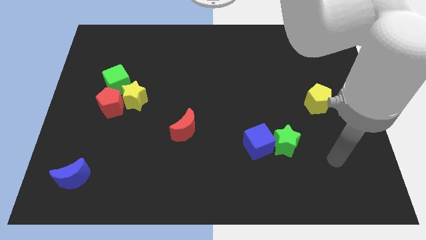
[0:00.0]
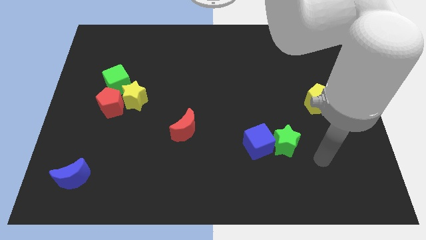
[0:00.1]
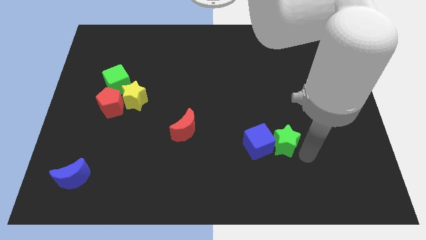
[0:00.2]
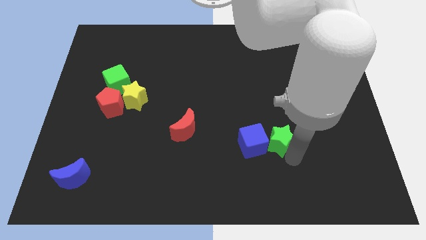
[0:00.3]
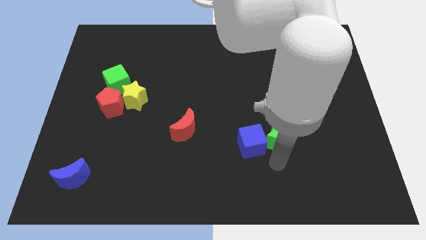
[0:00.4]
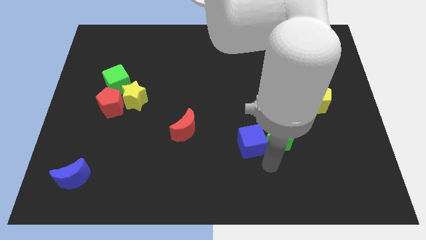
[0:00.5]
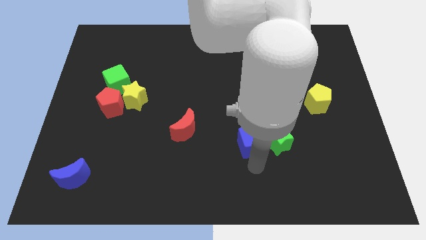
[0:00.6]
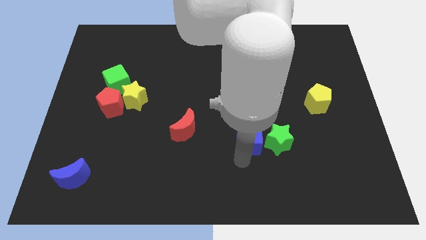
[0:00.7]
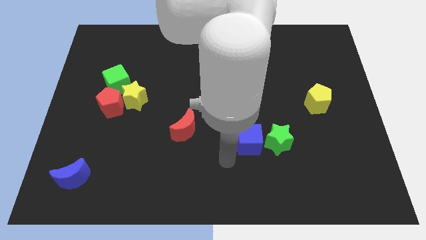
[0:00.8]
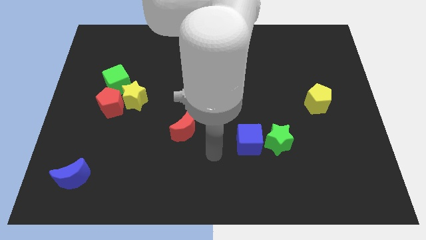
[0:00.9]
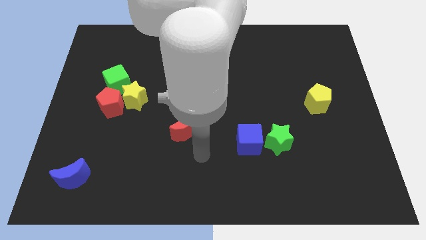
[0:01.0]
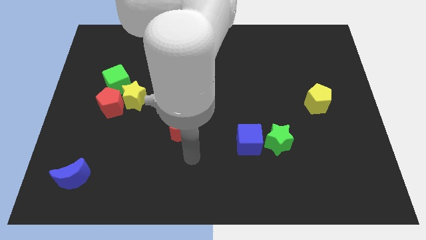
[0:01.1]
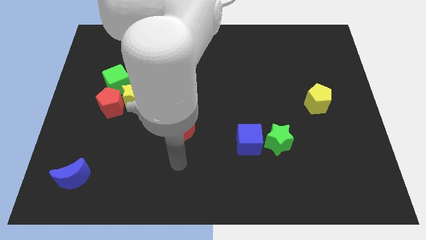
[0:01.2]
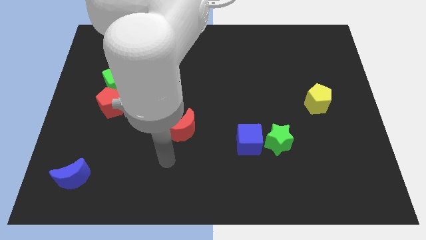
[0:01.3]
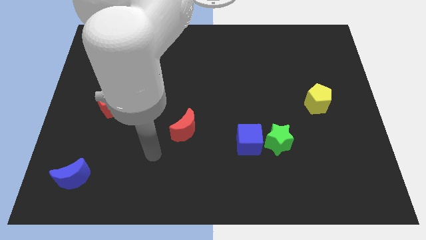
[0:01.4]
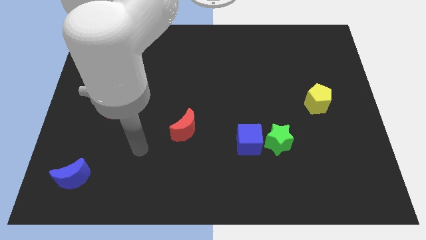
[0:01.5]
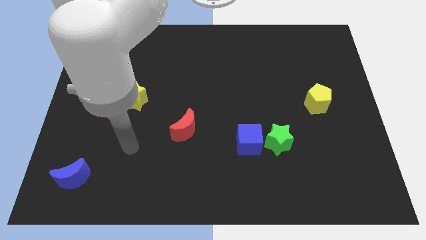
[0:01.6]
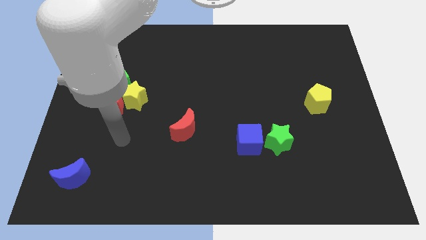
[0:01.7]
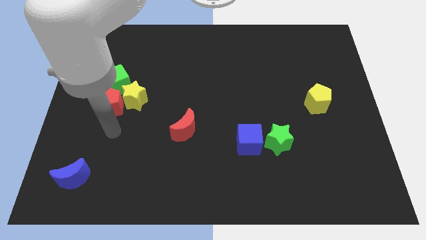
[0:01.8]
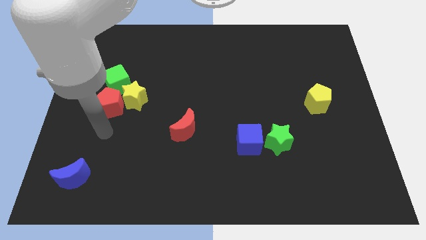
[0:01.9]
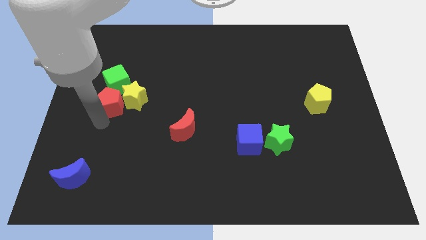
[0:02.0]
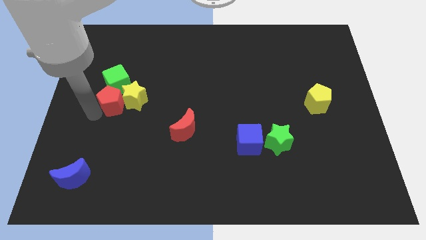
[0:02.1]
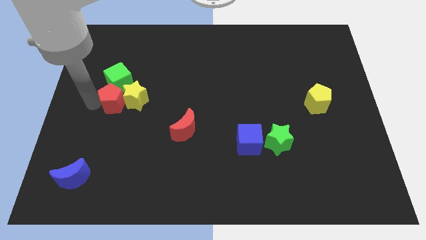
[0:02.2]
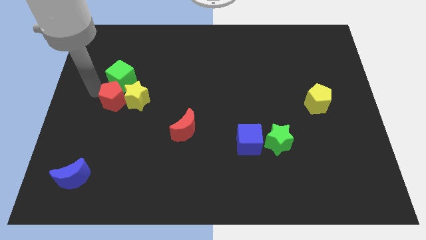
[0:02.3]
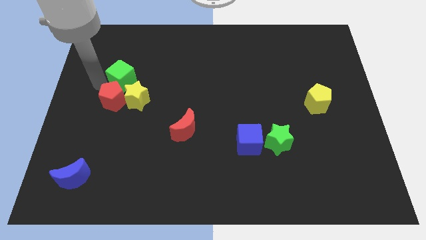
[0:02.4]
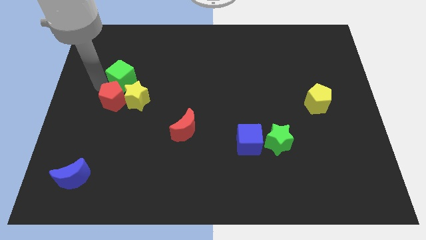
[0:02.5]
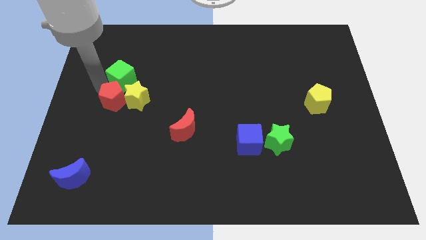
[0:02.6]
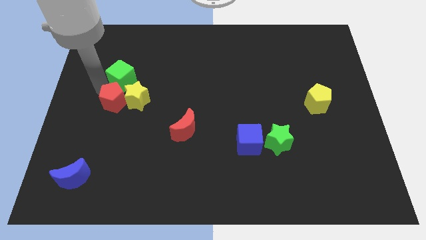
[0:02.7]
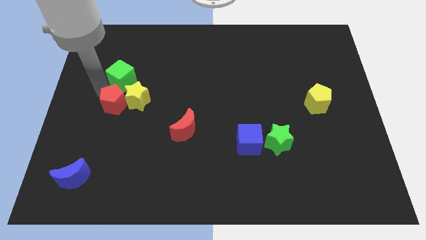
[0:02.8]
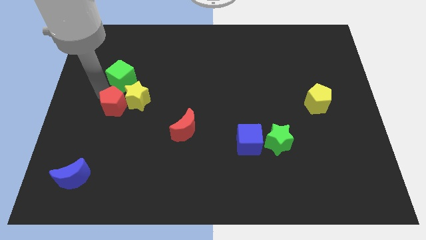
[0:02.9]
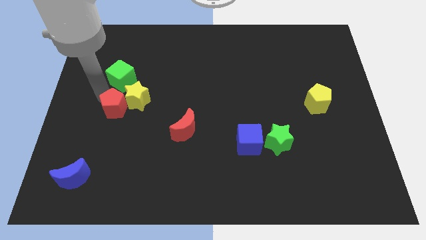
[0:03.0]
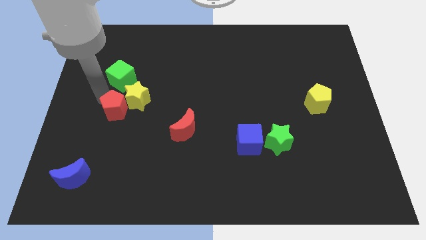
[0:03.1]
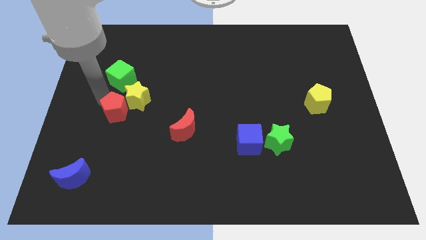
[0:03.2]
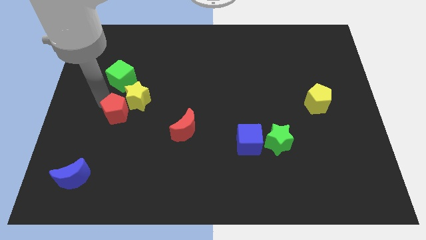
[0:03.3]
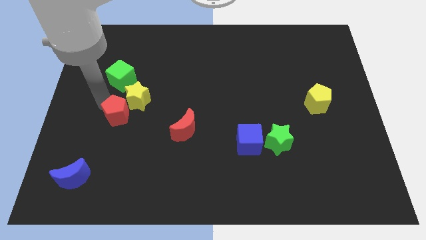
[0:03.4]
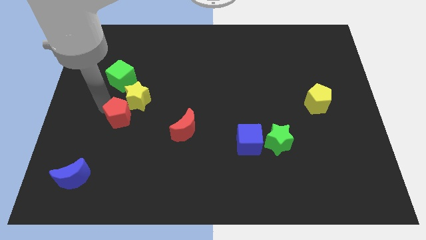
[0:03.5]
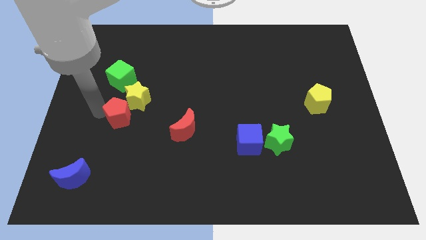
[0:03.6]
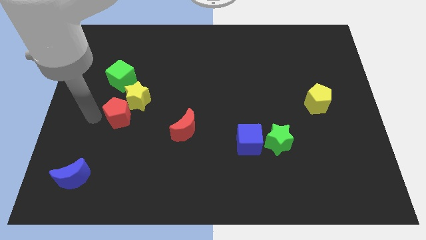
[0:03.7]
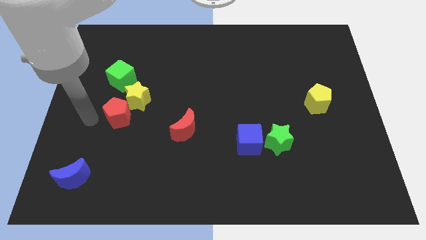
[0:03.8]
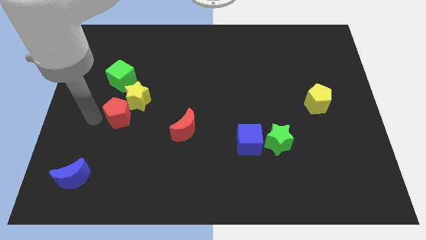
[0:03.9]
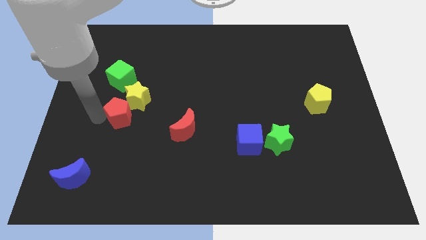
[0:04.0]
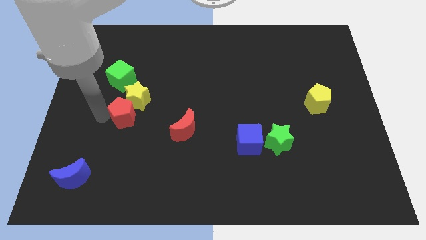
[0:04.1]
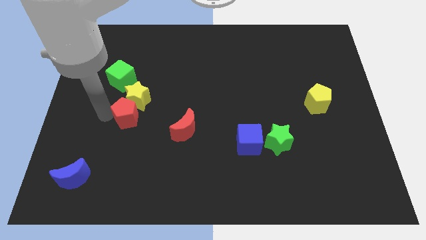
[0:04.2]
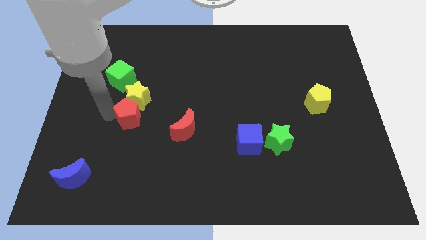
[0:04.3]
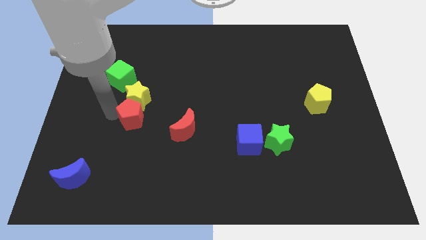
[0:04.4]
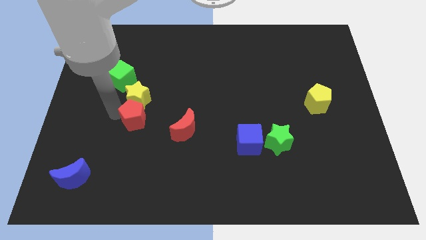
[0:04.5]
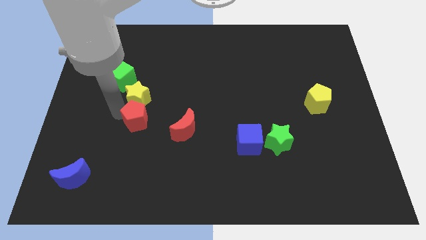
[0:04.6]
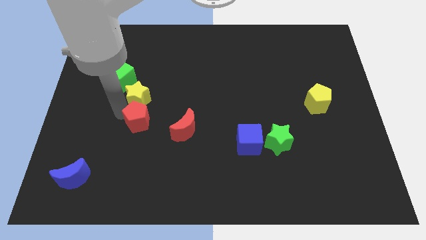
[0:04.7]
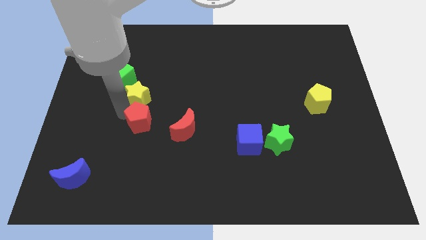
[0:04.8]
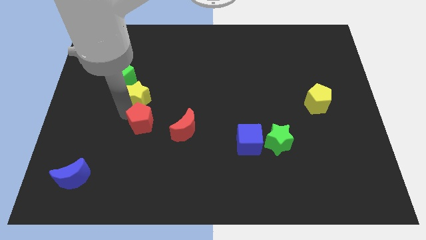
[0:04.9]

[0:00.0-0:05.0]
move the red pentagon to the right somewhat

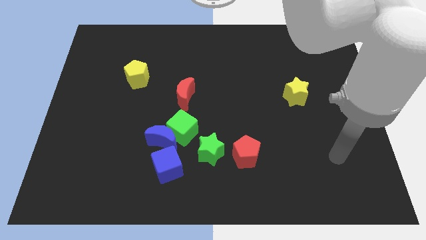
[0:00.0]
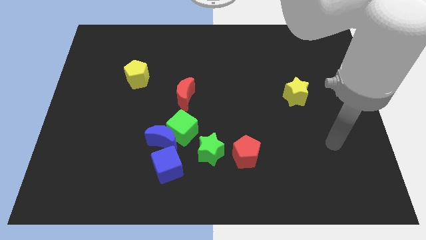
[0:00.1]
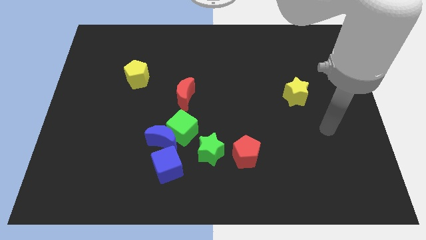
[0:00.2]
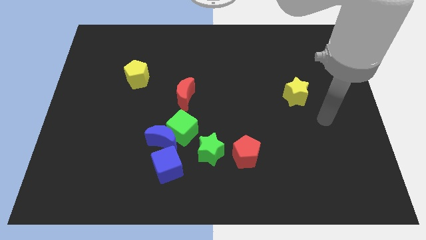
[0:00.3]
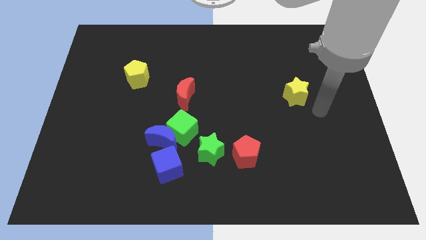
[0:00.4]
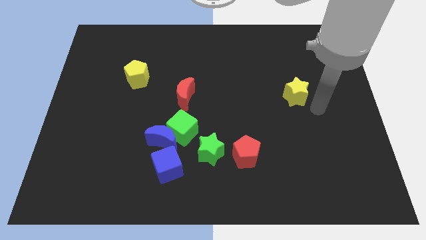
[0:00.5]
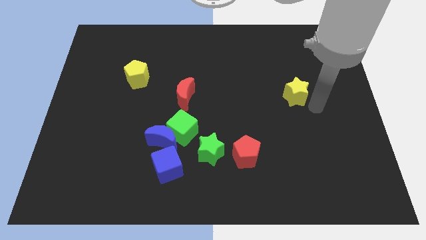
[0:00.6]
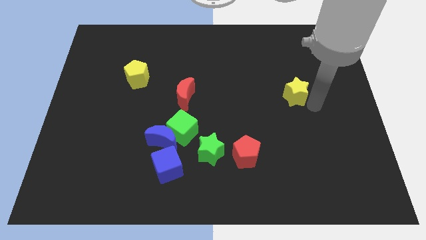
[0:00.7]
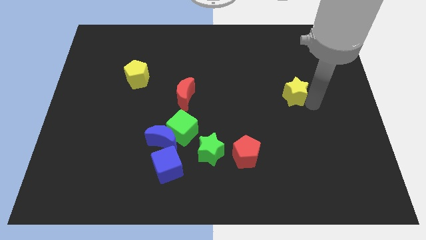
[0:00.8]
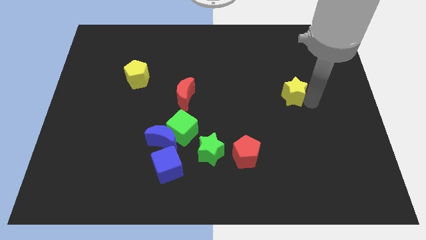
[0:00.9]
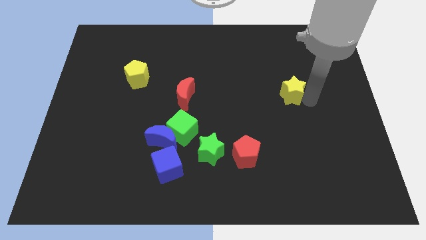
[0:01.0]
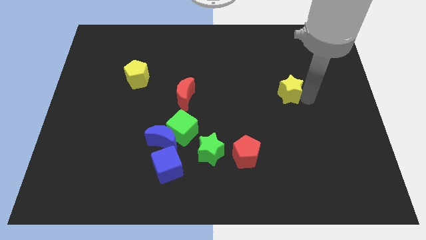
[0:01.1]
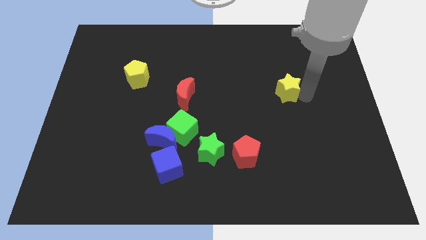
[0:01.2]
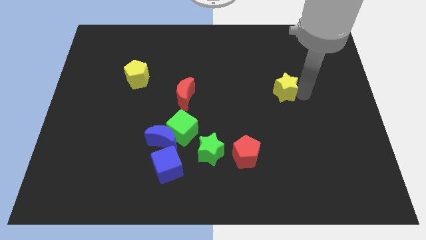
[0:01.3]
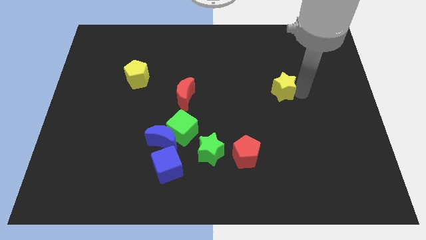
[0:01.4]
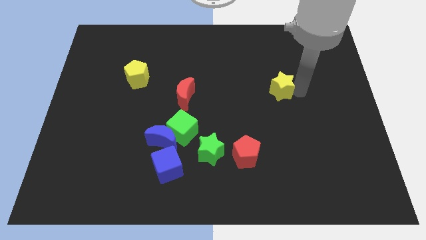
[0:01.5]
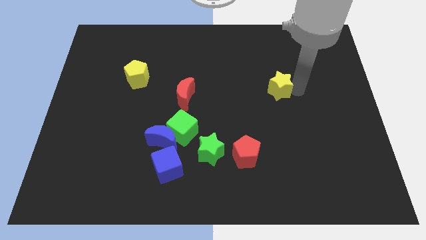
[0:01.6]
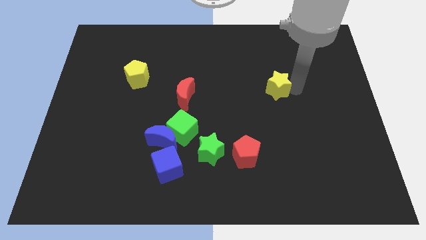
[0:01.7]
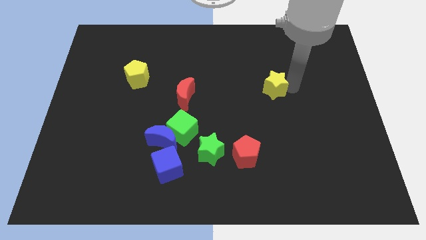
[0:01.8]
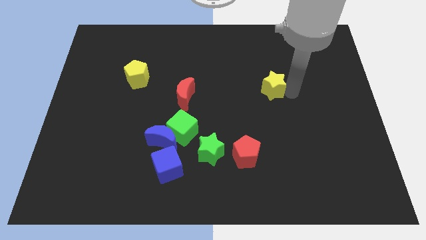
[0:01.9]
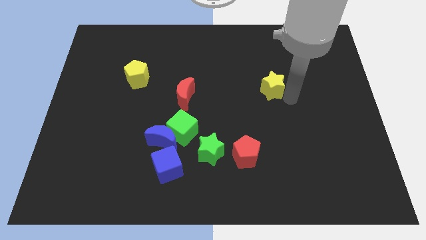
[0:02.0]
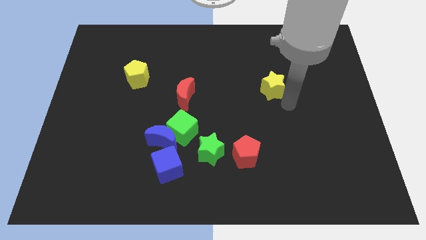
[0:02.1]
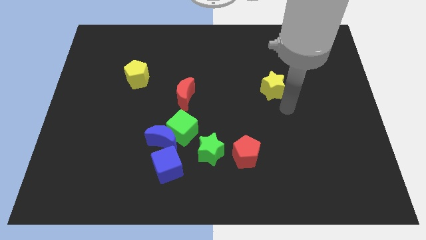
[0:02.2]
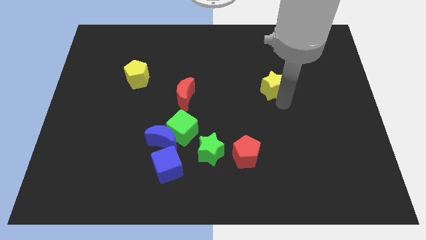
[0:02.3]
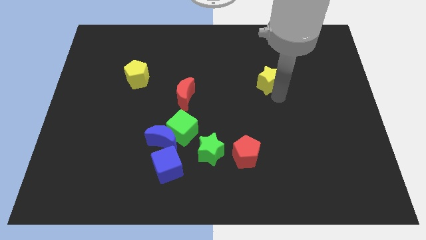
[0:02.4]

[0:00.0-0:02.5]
slightly slide the yellow star upwards and left

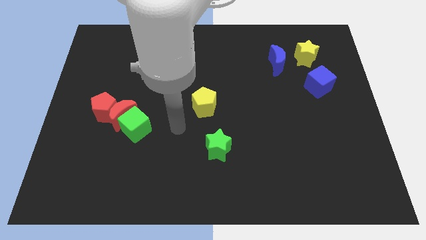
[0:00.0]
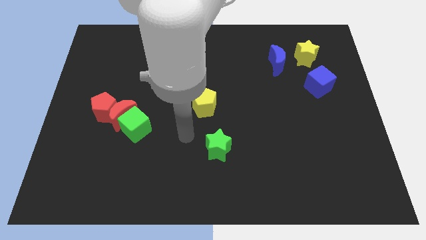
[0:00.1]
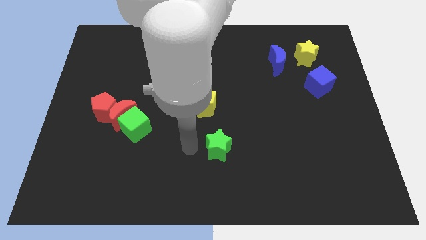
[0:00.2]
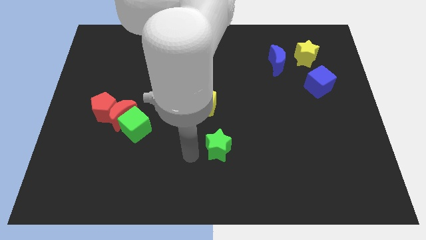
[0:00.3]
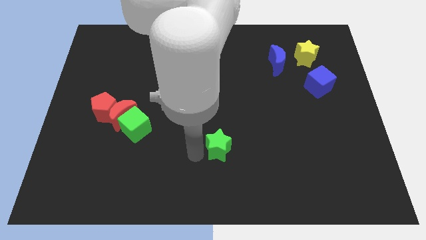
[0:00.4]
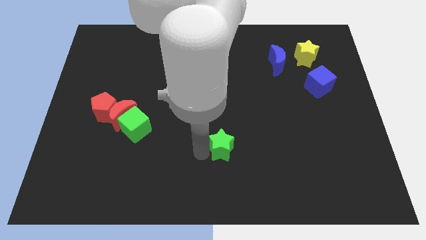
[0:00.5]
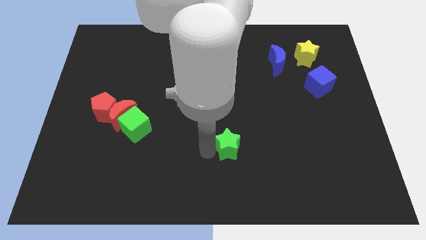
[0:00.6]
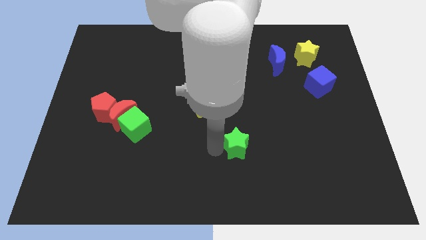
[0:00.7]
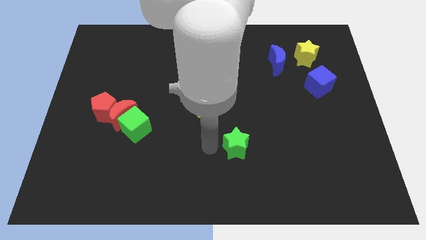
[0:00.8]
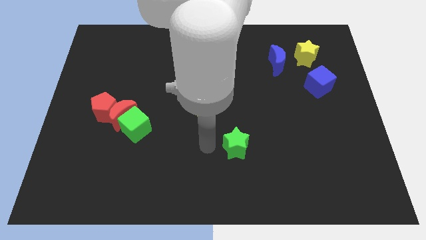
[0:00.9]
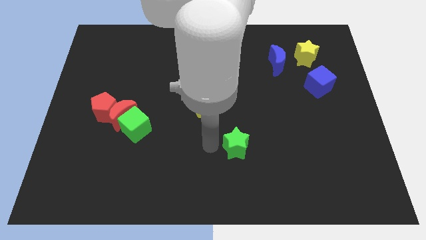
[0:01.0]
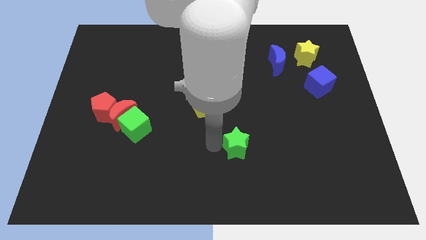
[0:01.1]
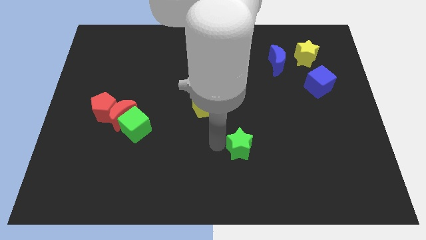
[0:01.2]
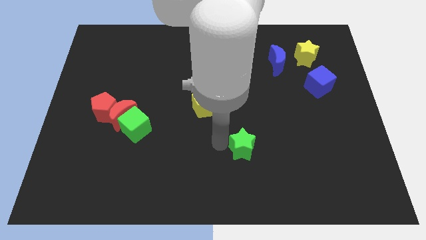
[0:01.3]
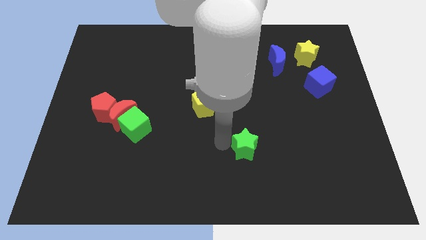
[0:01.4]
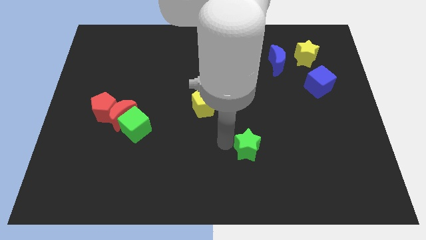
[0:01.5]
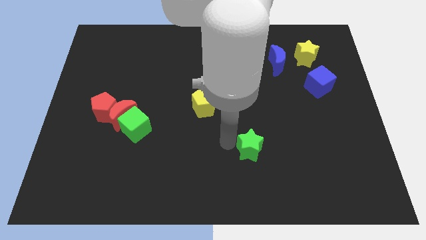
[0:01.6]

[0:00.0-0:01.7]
slightly slide the green star to the right
